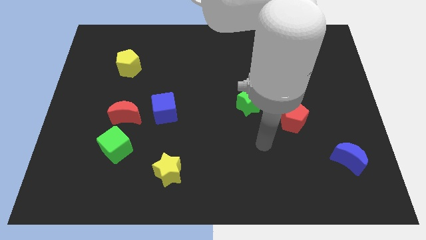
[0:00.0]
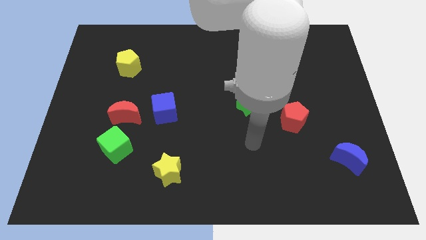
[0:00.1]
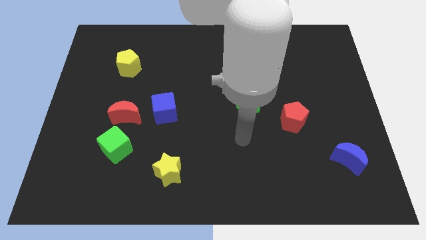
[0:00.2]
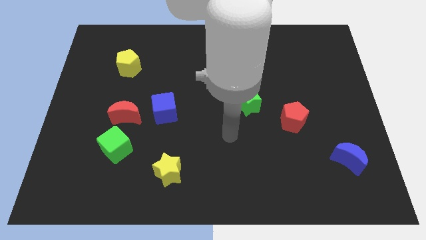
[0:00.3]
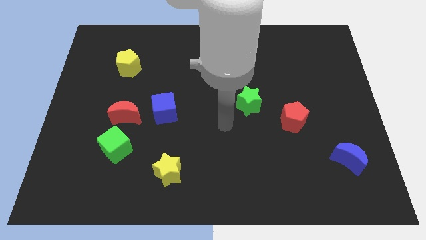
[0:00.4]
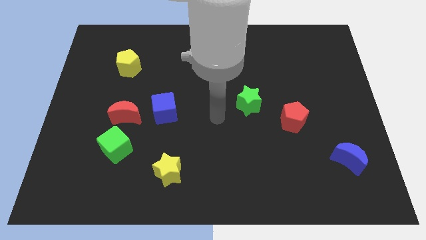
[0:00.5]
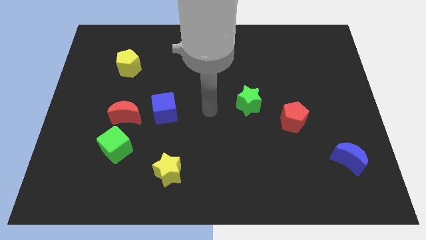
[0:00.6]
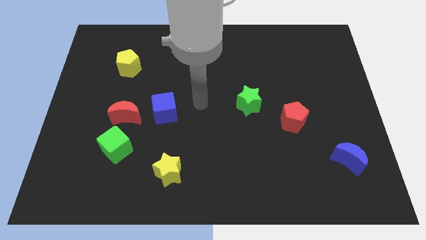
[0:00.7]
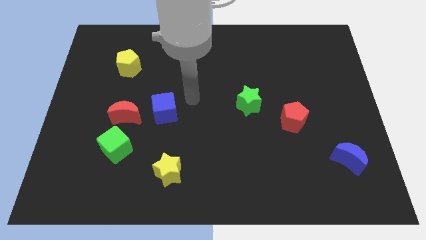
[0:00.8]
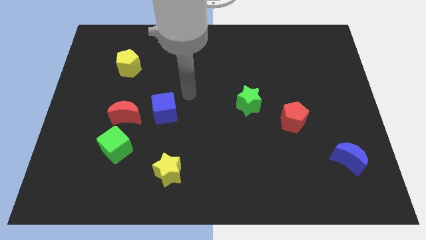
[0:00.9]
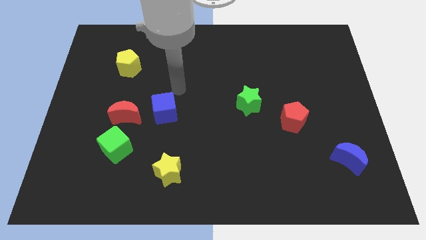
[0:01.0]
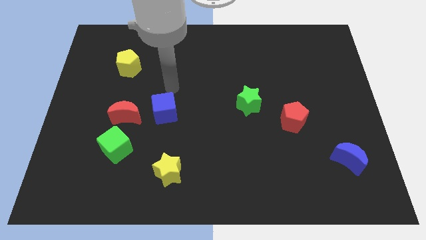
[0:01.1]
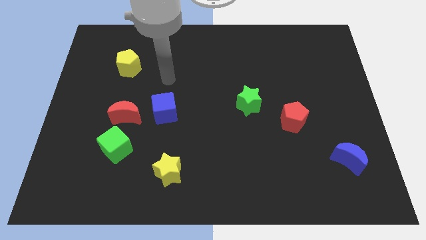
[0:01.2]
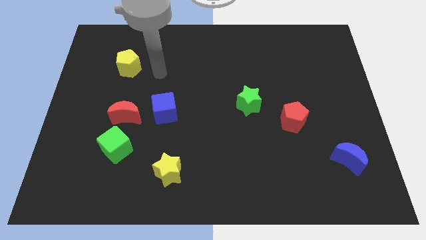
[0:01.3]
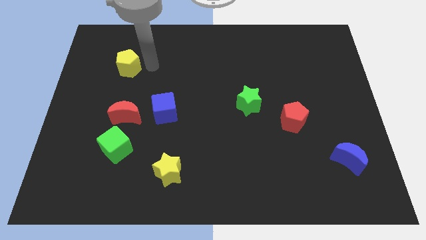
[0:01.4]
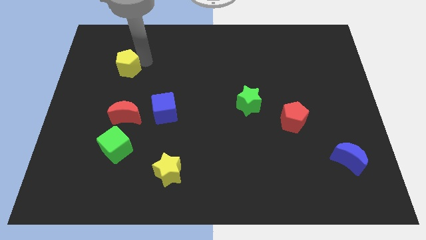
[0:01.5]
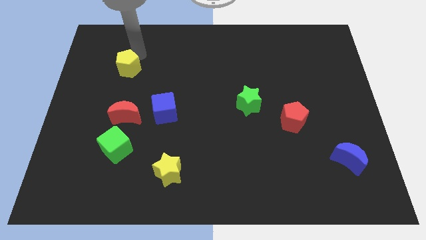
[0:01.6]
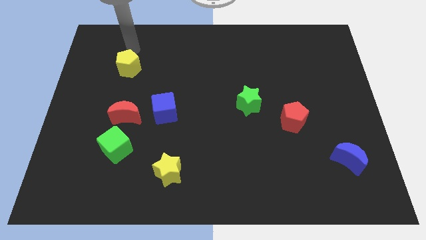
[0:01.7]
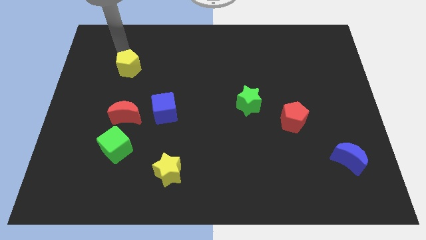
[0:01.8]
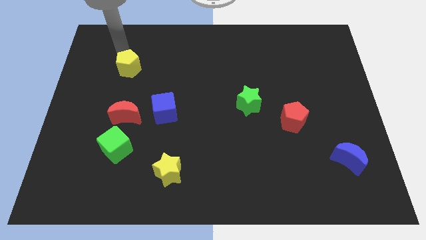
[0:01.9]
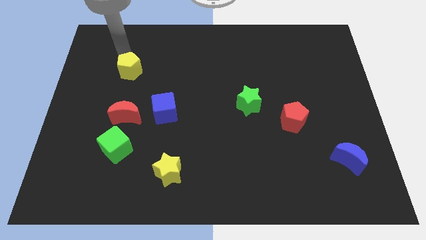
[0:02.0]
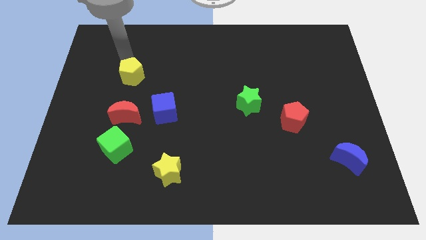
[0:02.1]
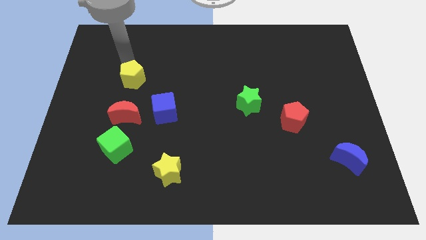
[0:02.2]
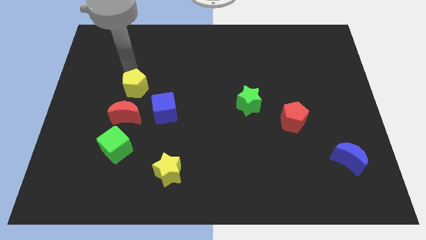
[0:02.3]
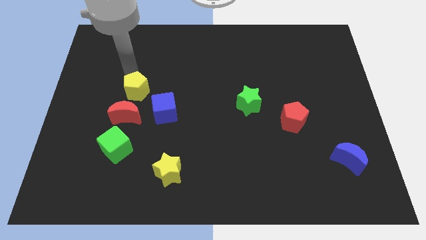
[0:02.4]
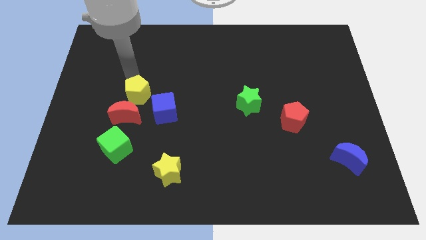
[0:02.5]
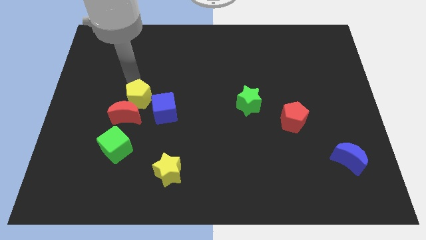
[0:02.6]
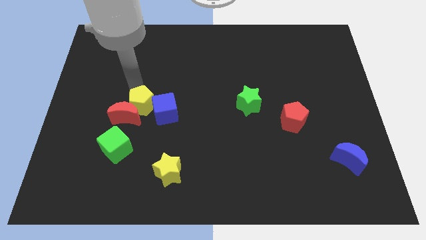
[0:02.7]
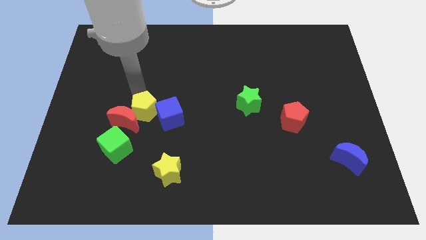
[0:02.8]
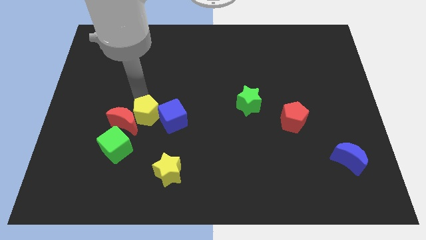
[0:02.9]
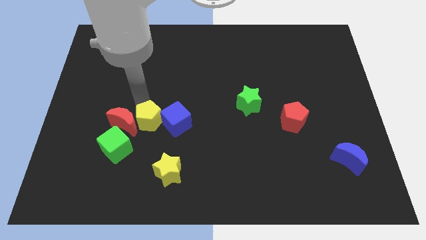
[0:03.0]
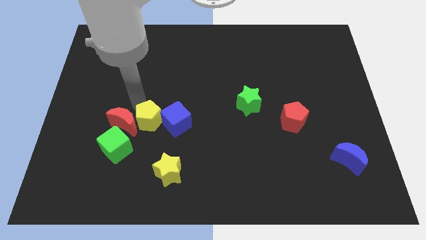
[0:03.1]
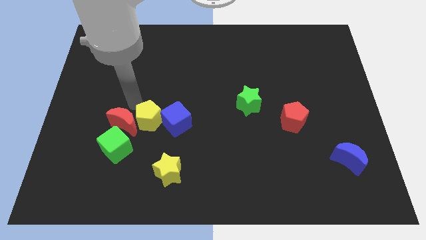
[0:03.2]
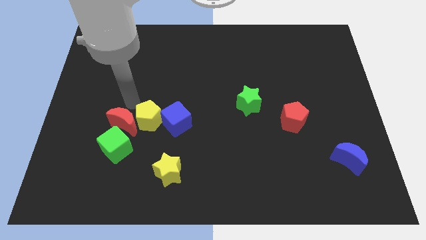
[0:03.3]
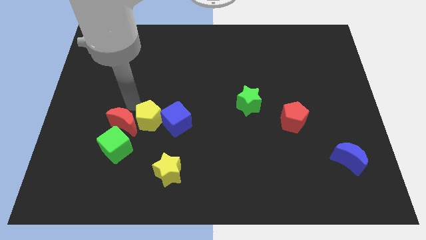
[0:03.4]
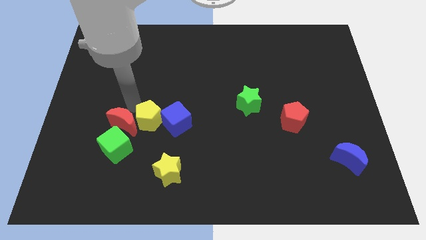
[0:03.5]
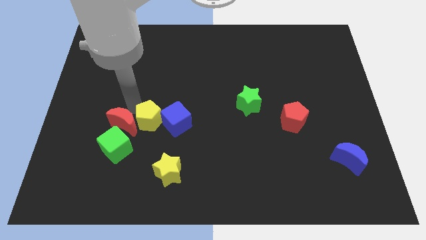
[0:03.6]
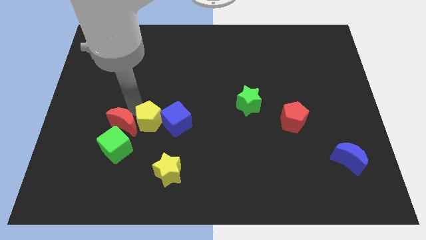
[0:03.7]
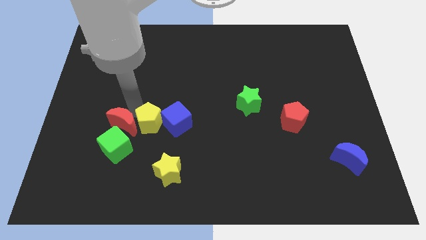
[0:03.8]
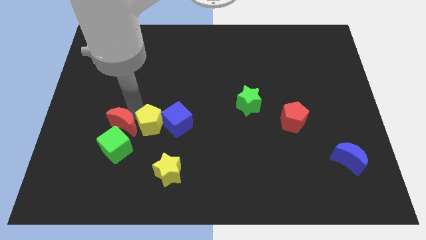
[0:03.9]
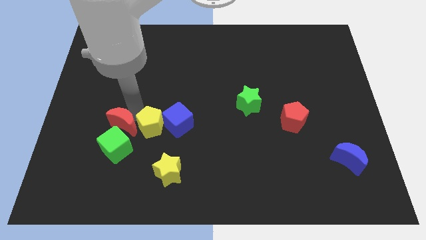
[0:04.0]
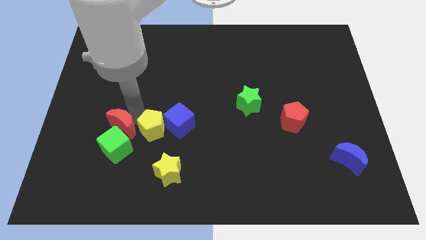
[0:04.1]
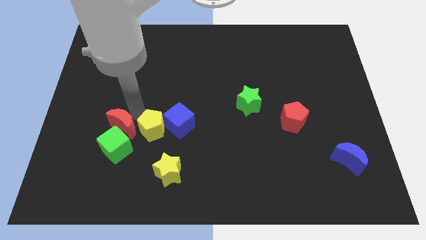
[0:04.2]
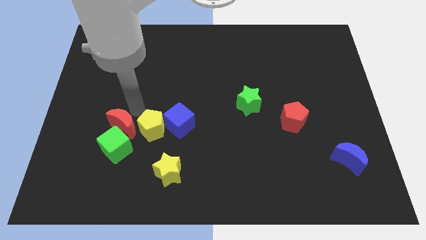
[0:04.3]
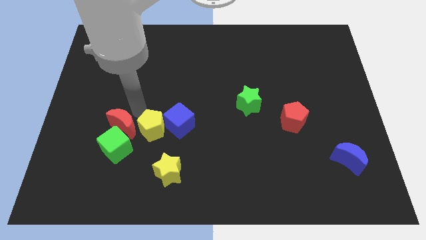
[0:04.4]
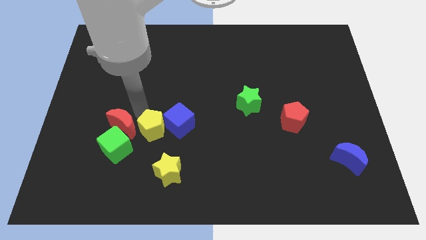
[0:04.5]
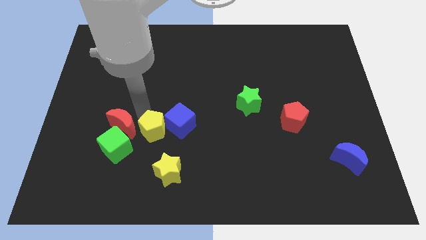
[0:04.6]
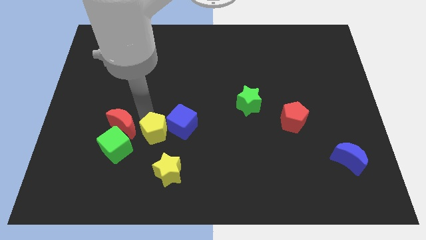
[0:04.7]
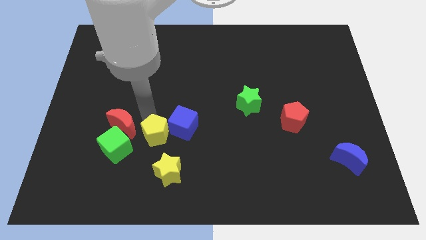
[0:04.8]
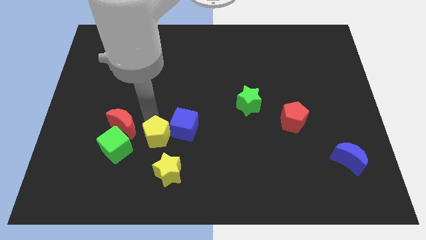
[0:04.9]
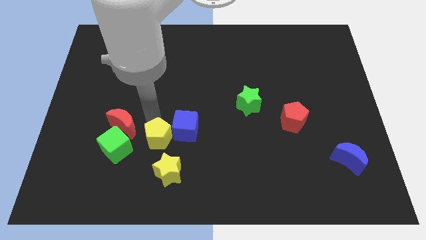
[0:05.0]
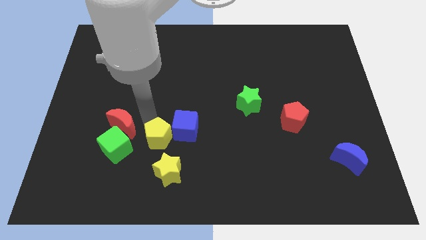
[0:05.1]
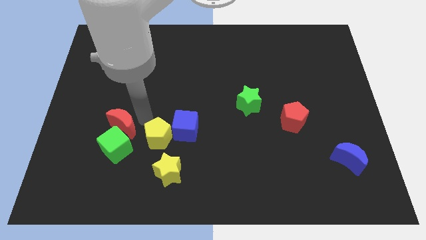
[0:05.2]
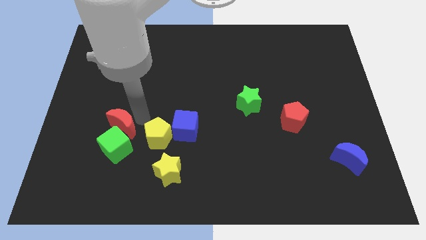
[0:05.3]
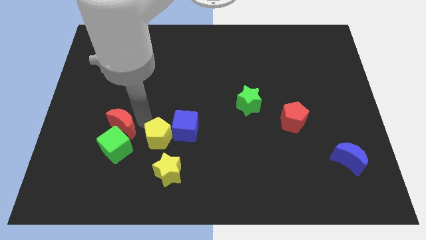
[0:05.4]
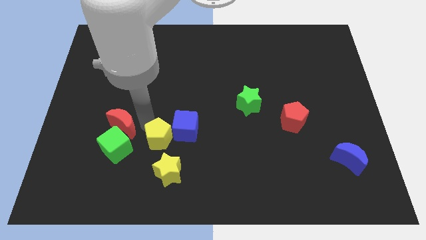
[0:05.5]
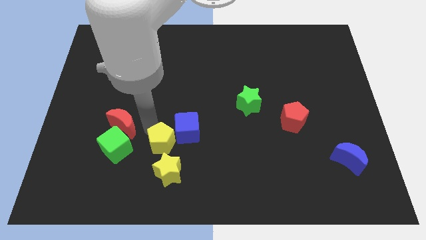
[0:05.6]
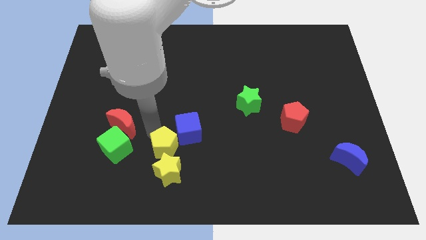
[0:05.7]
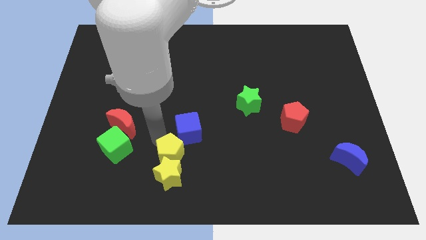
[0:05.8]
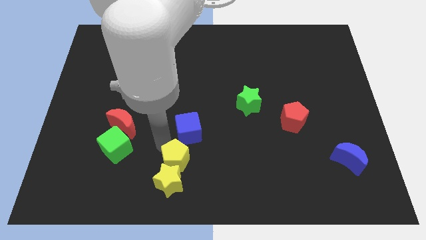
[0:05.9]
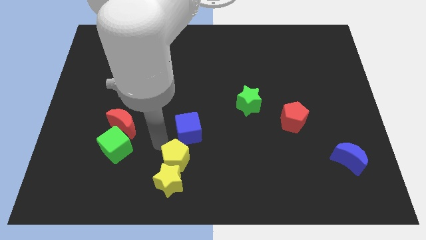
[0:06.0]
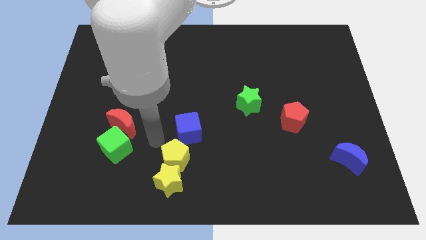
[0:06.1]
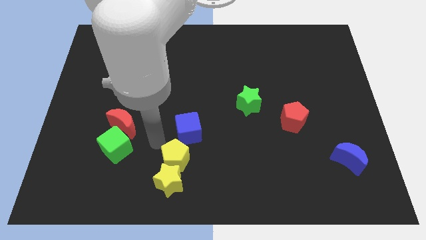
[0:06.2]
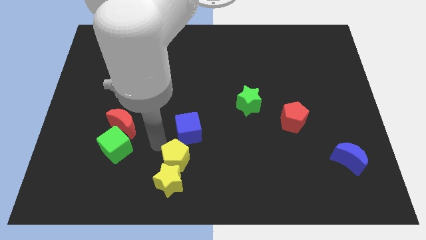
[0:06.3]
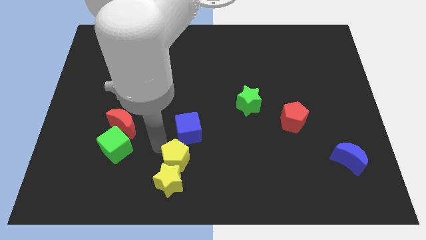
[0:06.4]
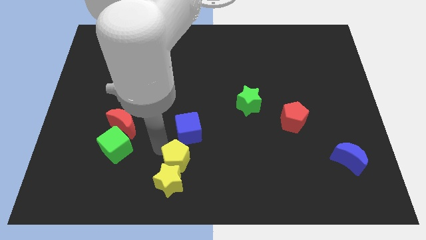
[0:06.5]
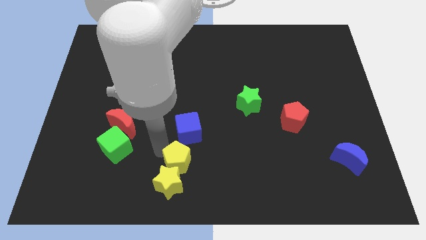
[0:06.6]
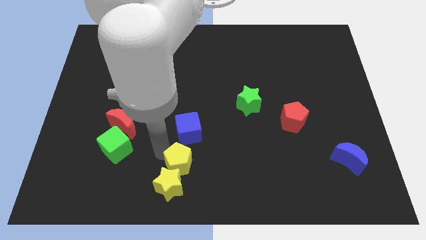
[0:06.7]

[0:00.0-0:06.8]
put the yellow pentagon to the bottom side

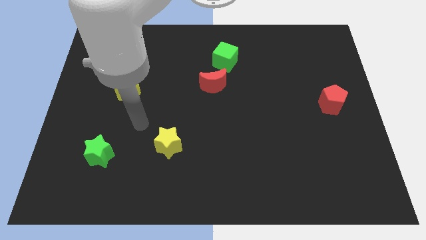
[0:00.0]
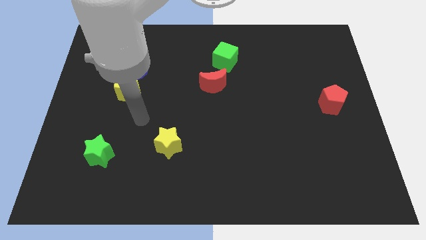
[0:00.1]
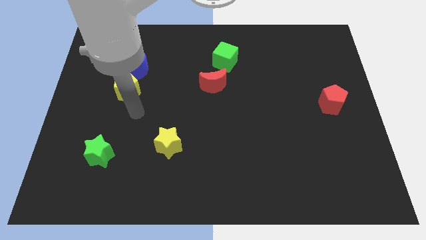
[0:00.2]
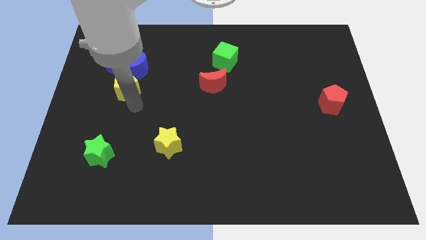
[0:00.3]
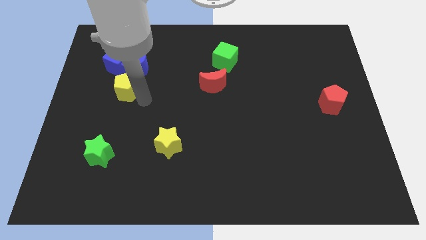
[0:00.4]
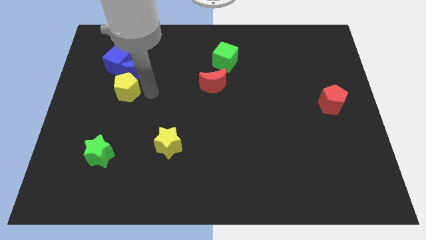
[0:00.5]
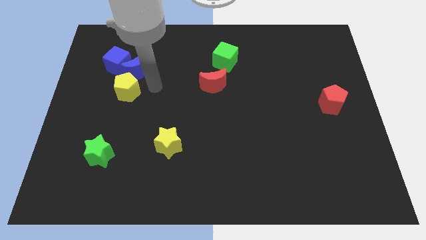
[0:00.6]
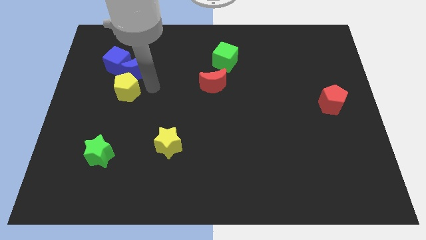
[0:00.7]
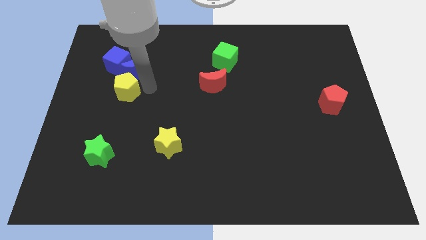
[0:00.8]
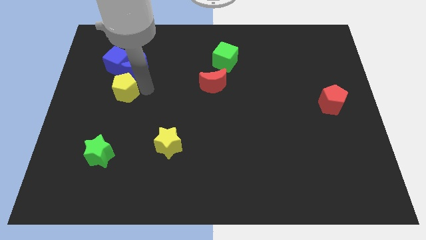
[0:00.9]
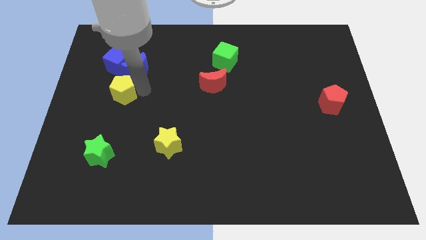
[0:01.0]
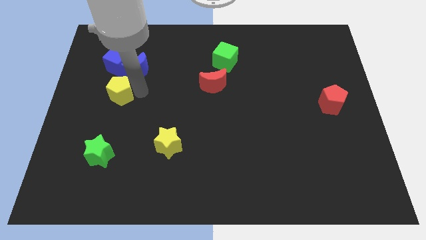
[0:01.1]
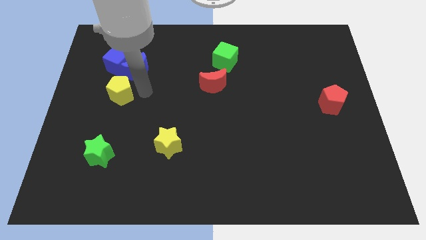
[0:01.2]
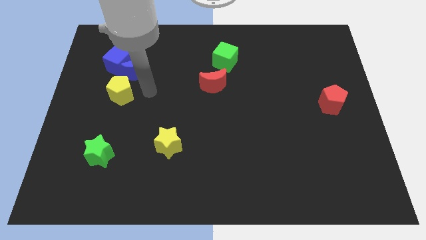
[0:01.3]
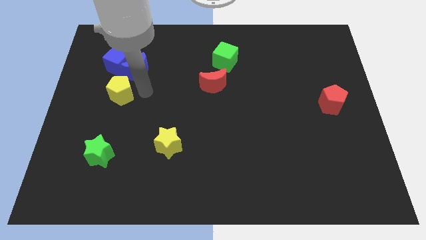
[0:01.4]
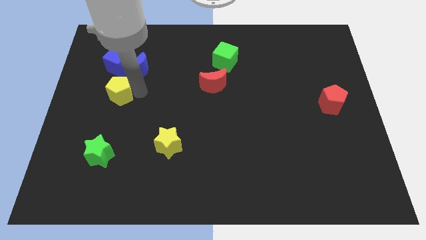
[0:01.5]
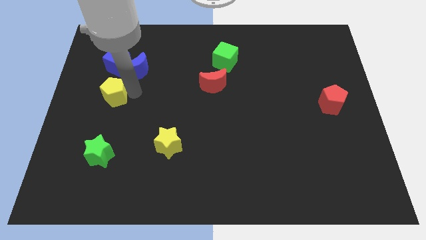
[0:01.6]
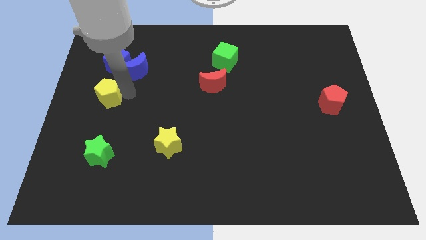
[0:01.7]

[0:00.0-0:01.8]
slide the yellow pentagon to the left side of the board
